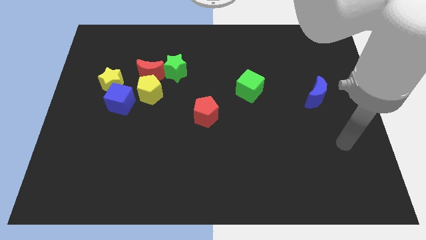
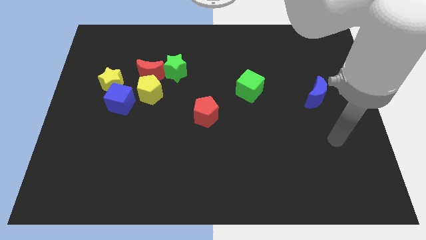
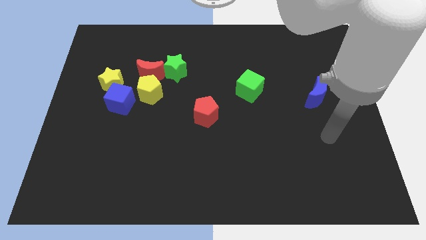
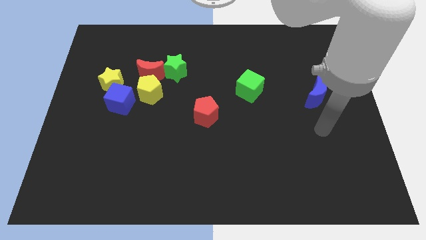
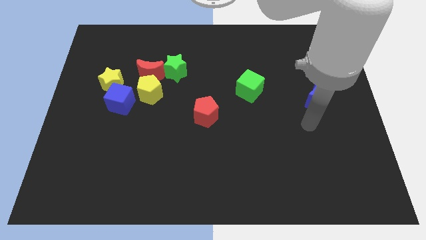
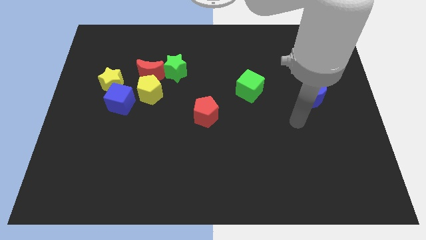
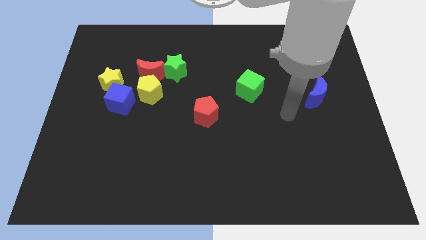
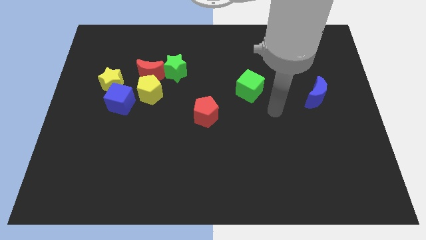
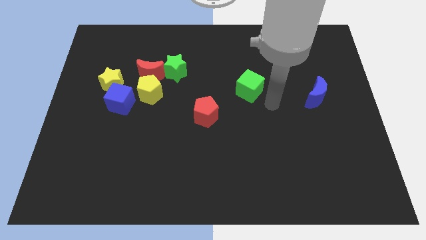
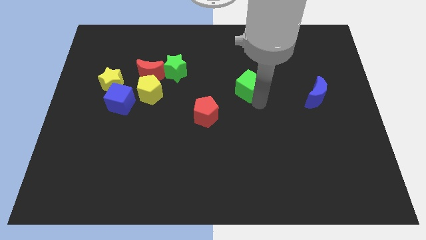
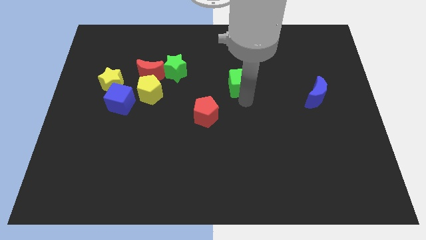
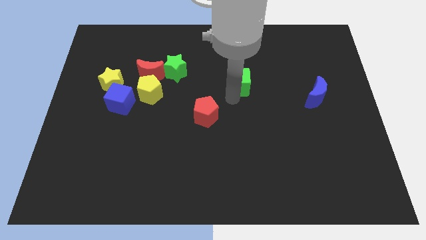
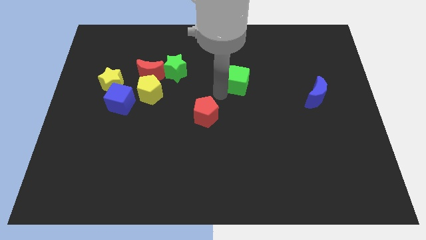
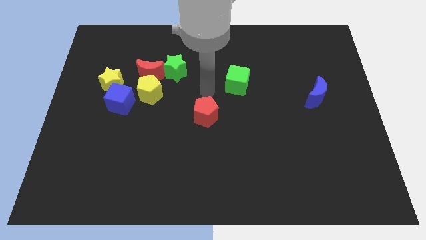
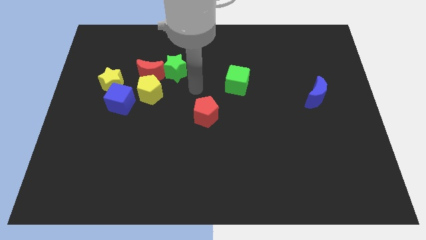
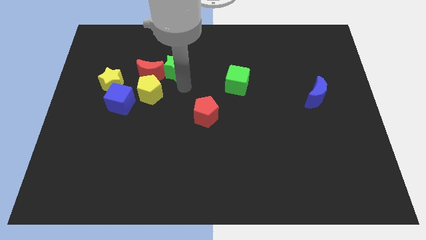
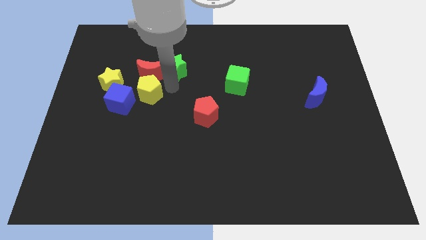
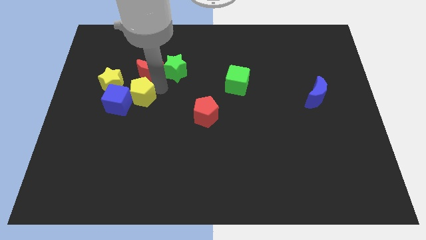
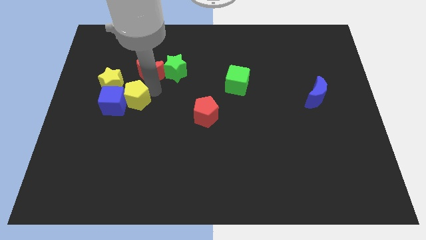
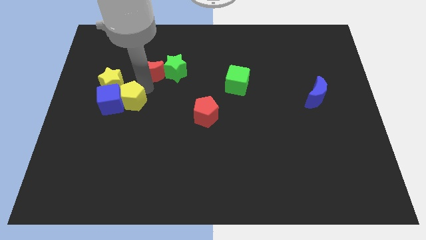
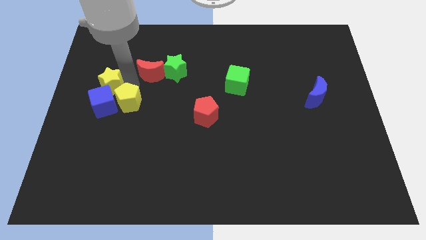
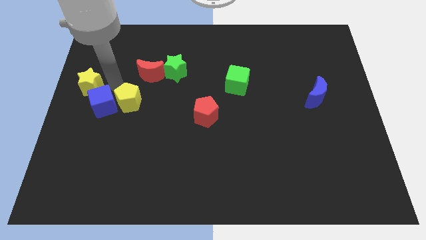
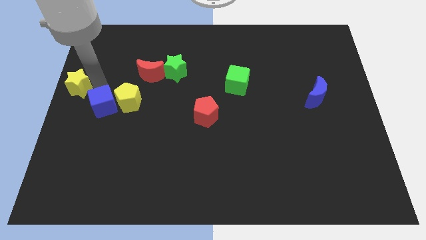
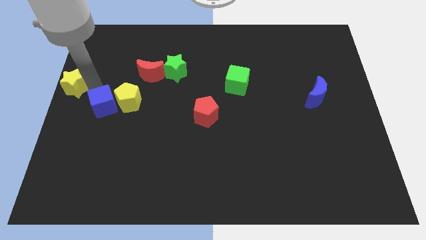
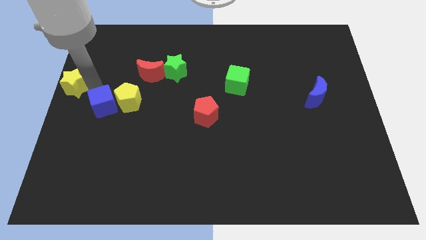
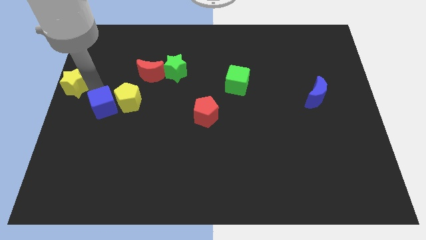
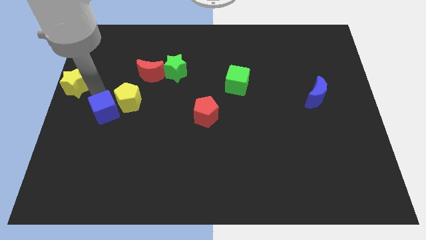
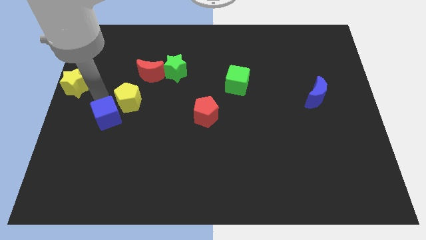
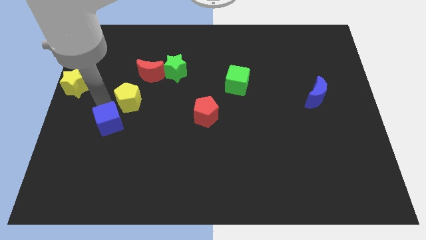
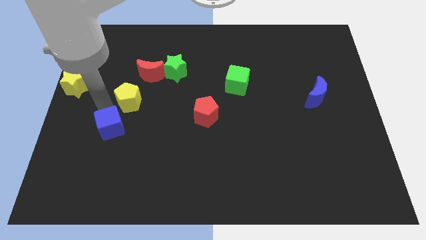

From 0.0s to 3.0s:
pull the blue cube apart from the yellow star and yellow pentagon

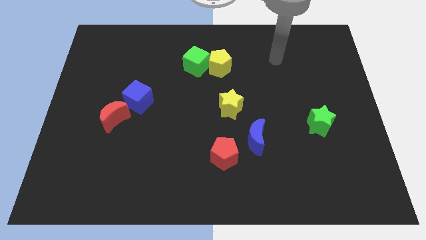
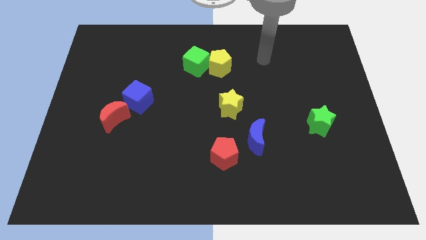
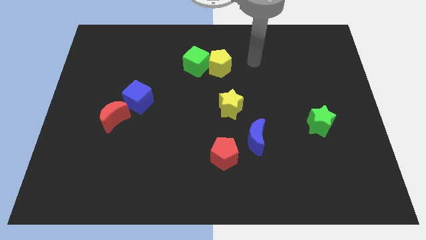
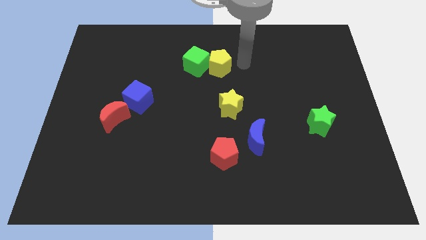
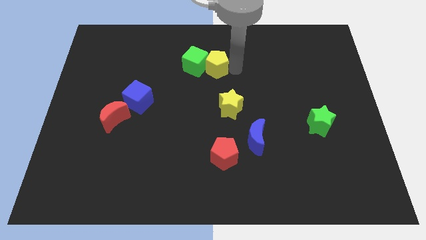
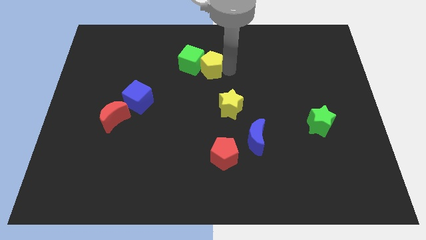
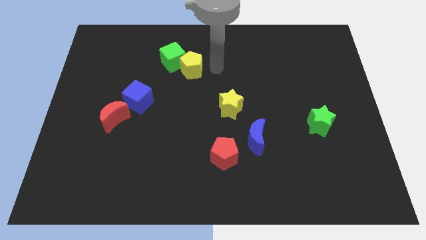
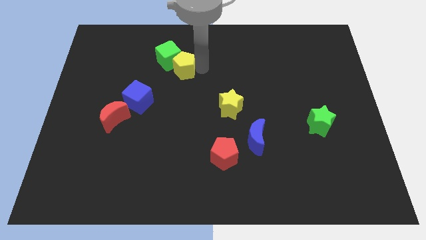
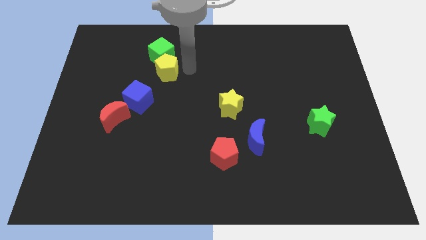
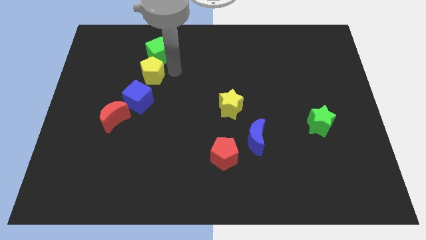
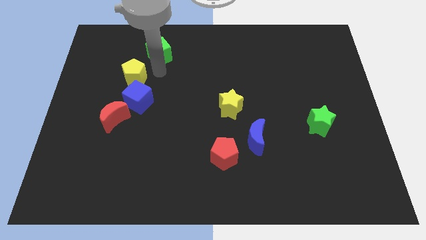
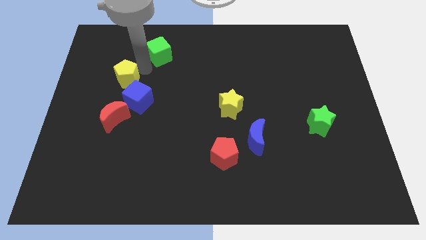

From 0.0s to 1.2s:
pull the green cube apart from the yellow pentagon

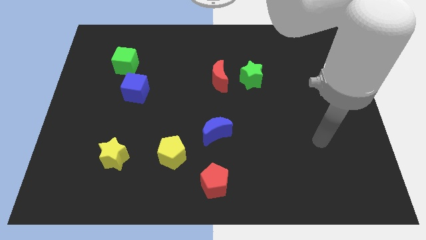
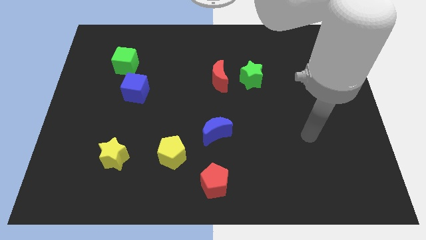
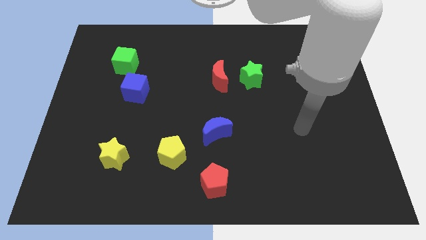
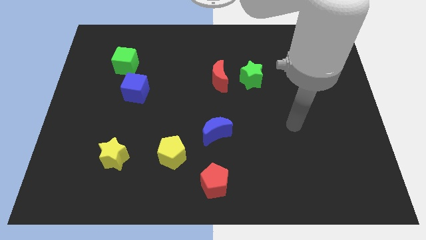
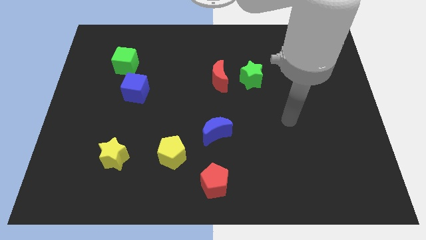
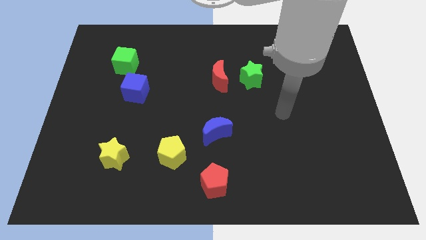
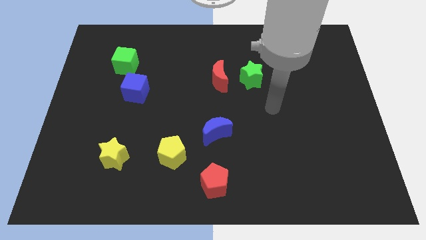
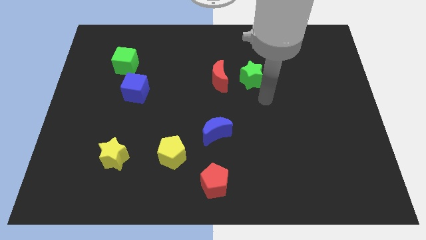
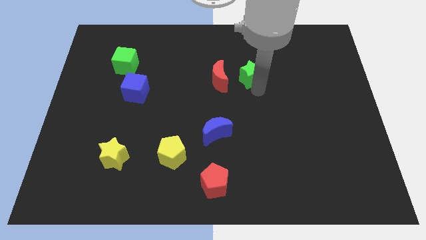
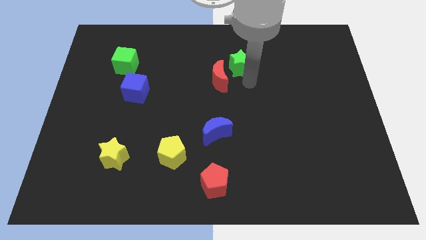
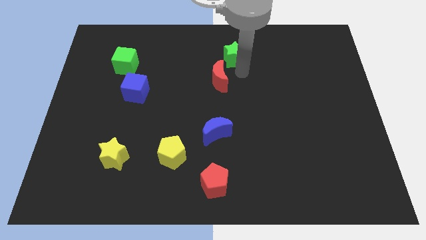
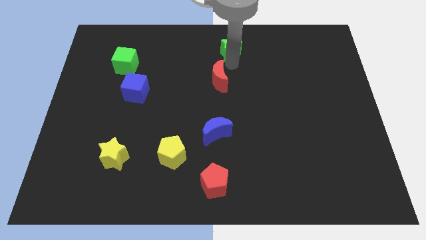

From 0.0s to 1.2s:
pull the red moon apart from the green star

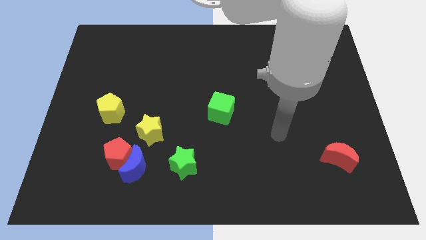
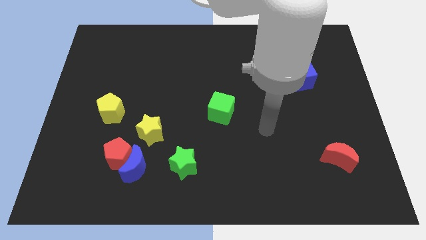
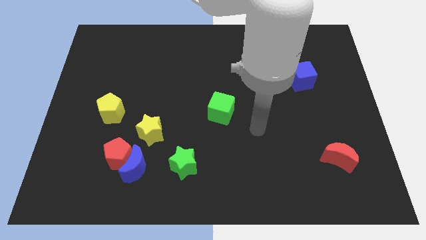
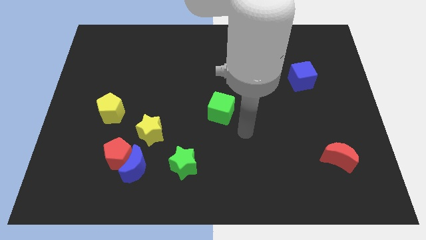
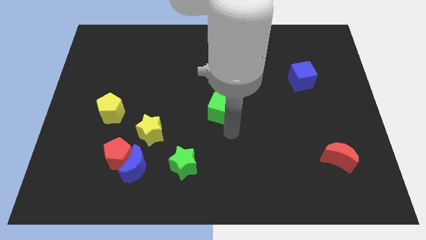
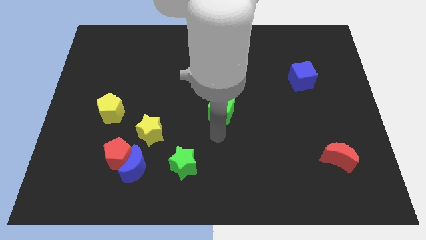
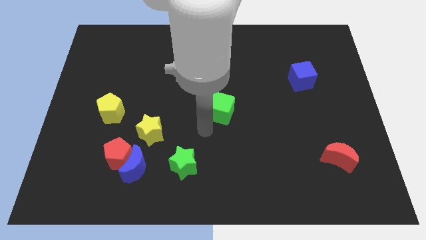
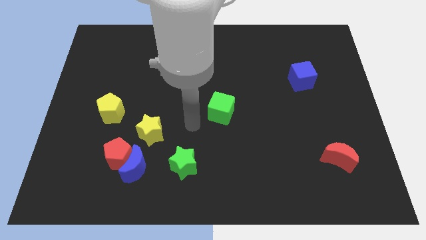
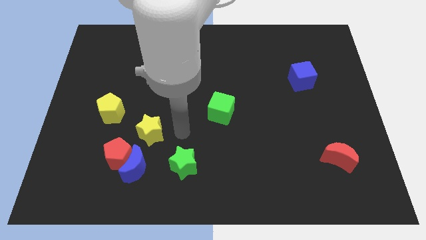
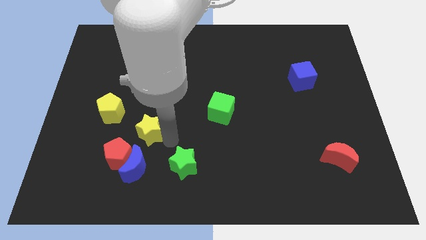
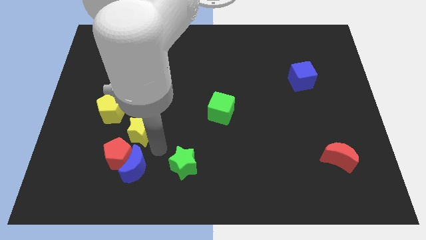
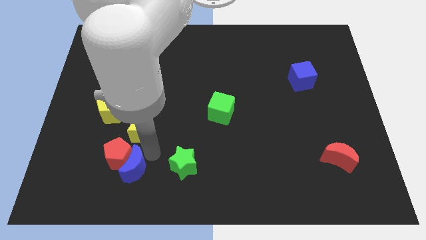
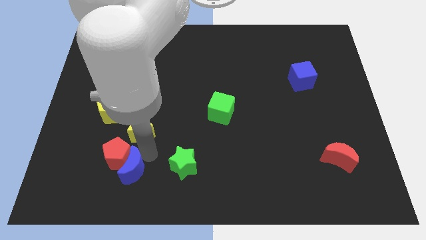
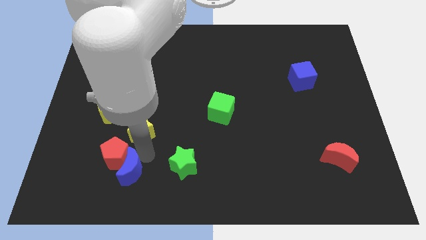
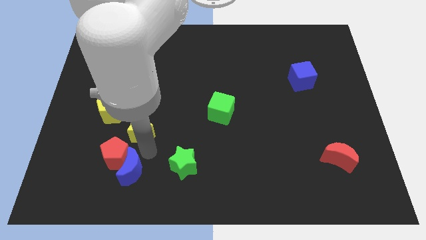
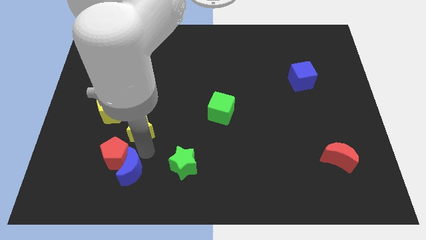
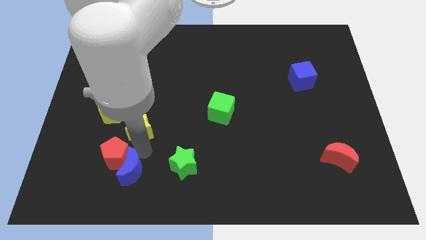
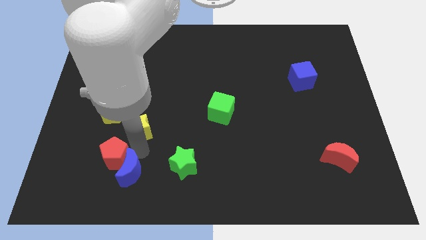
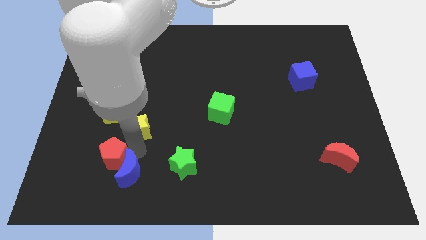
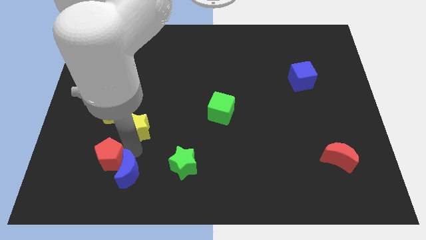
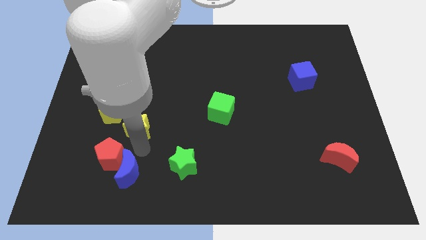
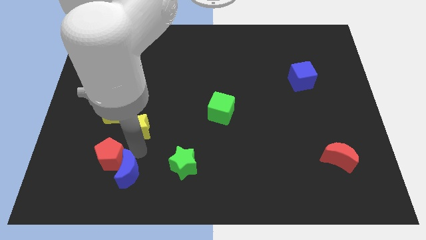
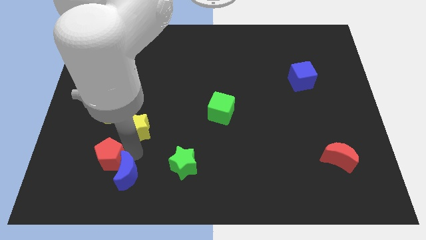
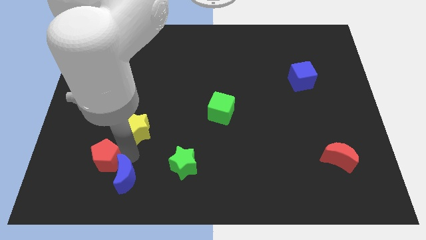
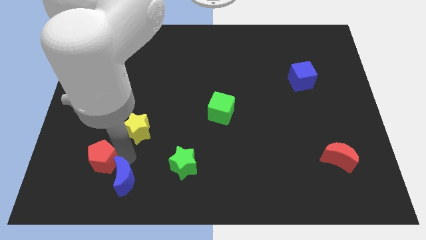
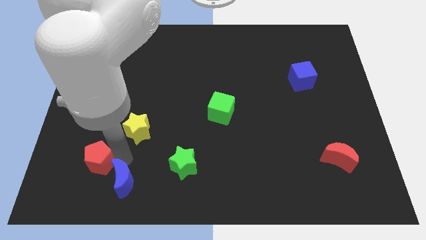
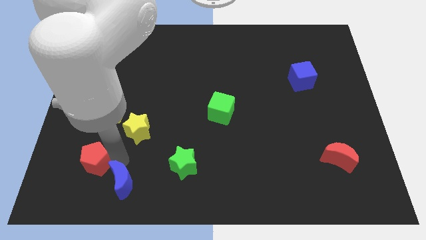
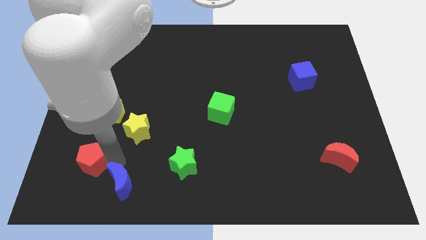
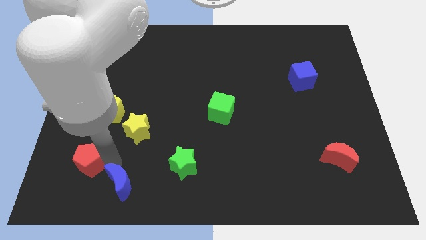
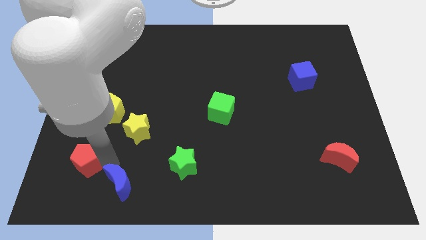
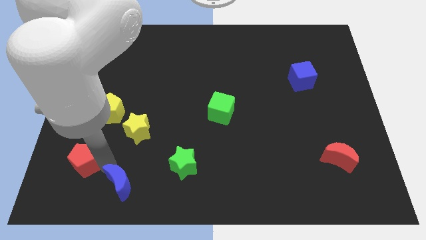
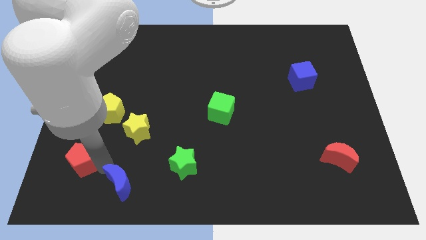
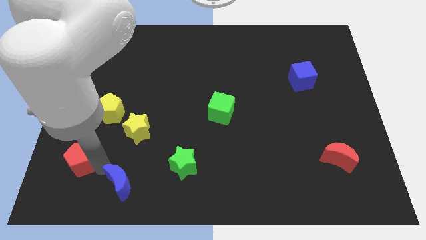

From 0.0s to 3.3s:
separate the red pentagon from the blue moon and yellow star

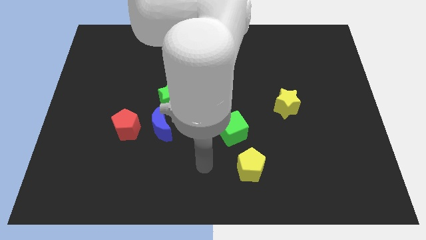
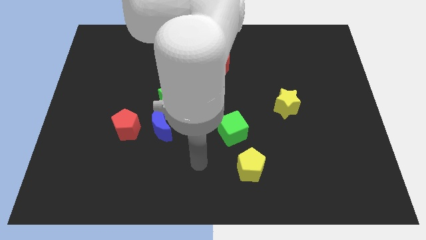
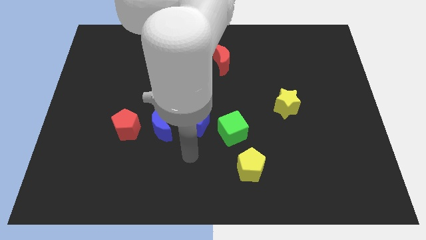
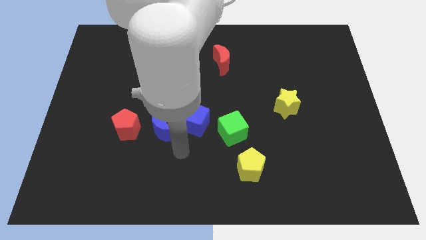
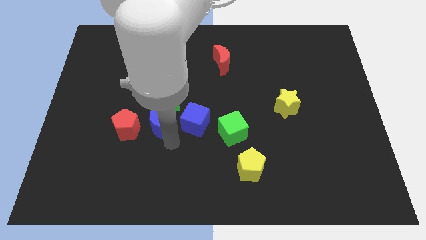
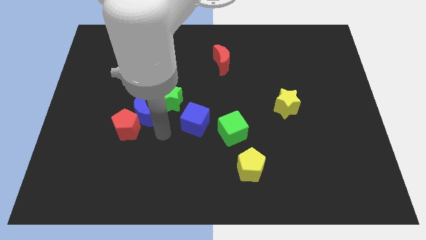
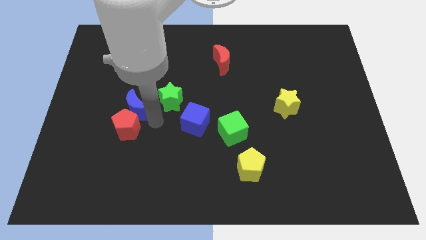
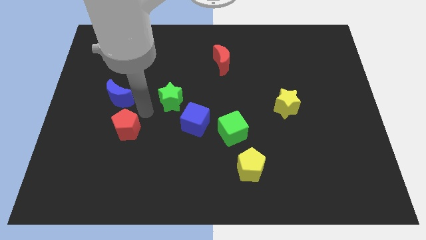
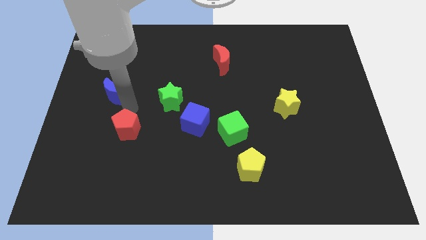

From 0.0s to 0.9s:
move the red pentagon away from the blue moon
